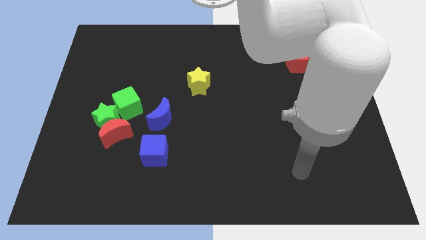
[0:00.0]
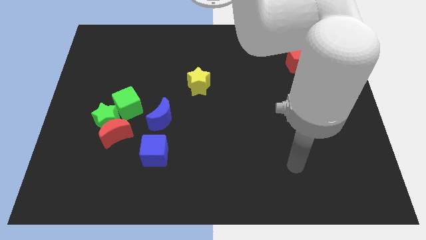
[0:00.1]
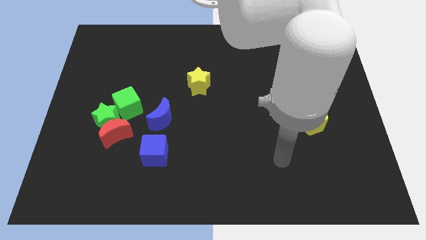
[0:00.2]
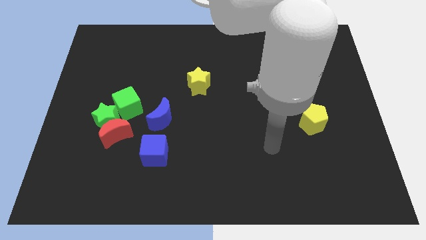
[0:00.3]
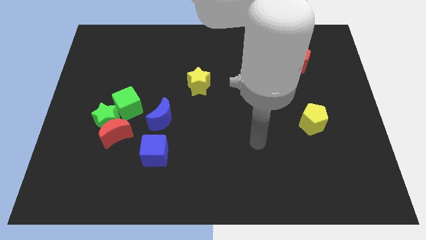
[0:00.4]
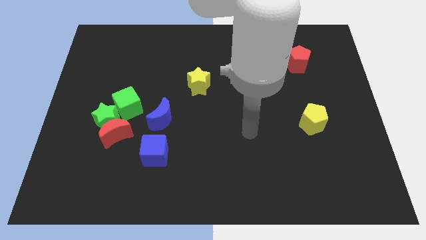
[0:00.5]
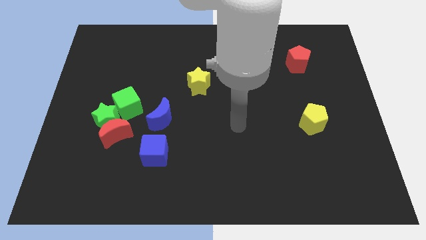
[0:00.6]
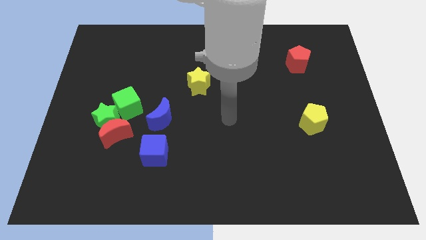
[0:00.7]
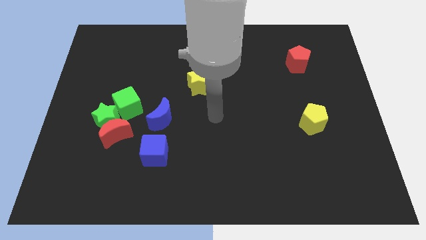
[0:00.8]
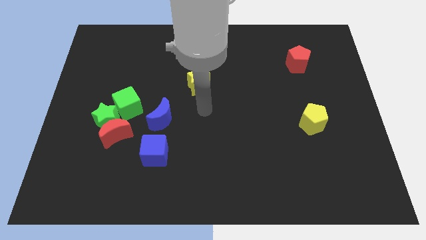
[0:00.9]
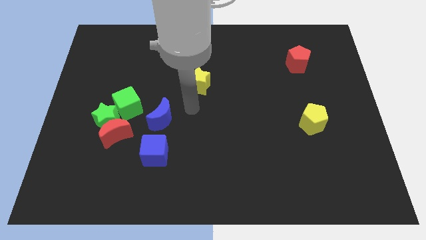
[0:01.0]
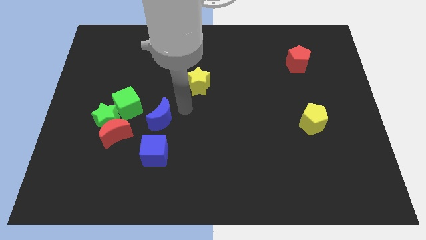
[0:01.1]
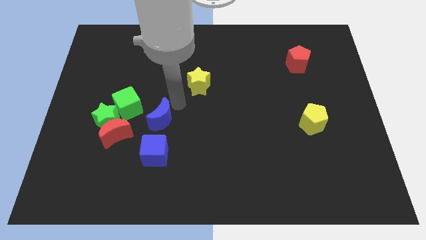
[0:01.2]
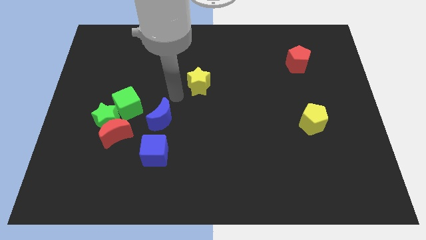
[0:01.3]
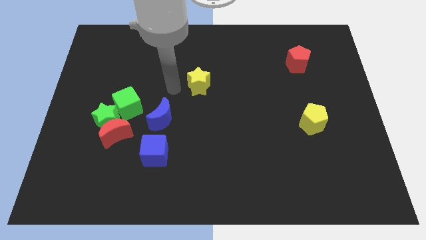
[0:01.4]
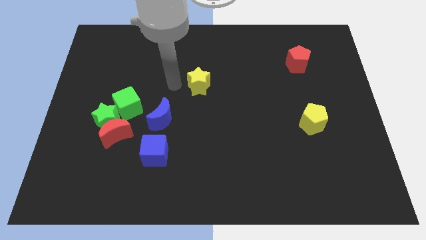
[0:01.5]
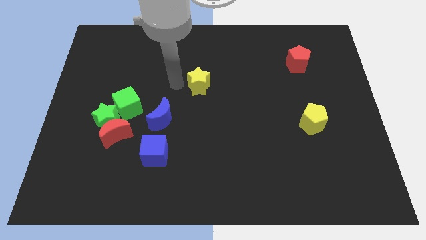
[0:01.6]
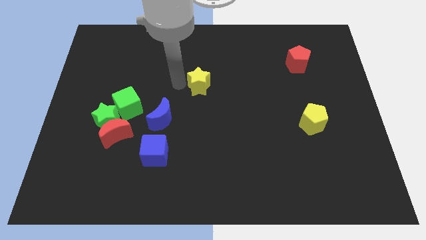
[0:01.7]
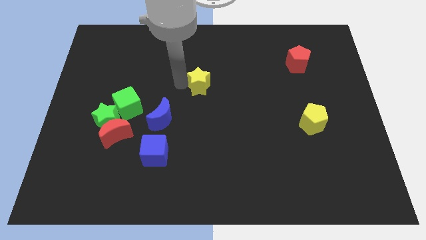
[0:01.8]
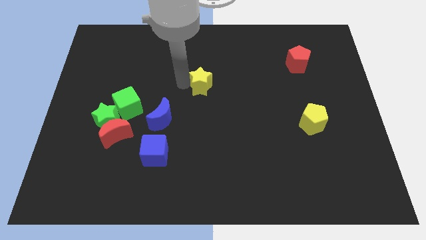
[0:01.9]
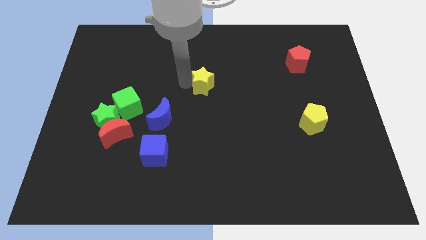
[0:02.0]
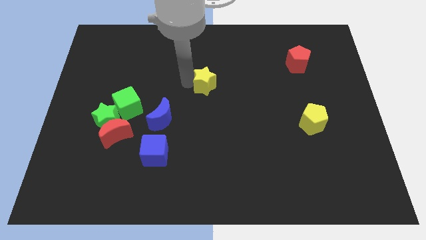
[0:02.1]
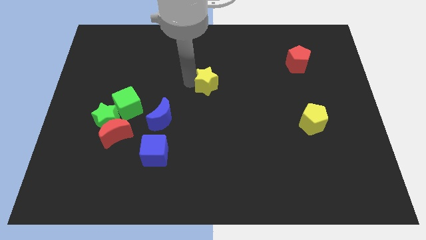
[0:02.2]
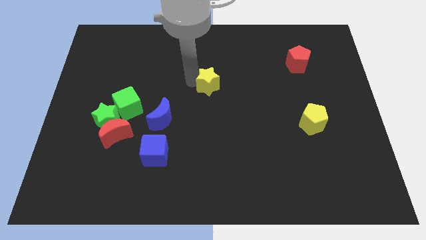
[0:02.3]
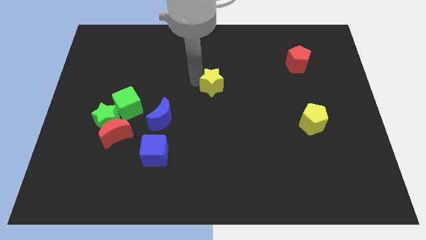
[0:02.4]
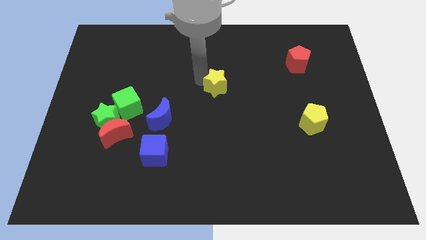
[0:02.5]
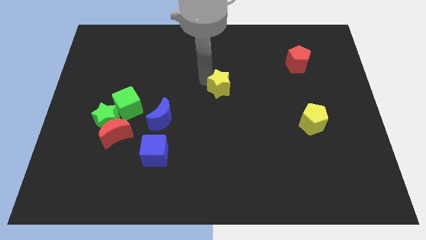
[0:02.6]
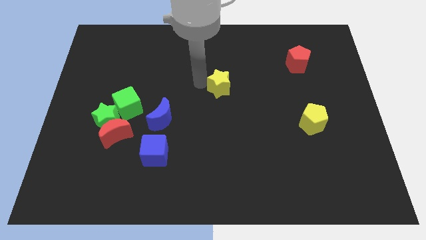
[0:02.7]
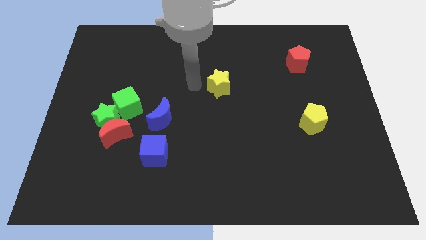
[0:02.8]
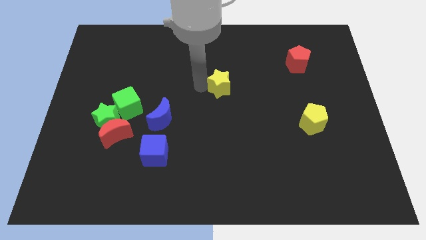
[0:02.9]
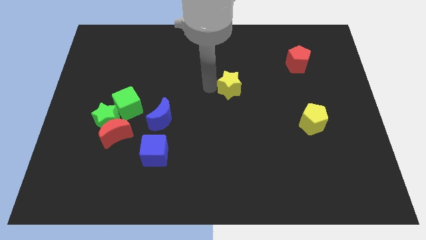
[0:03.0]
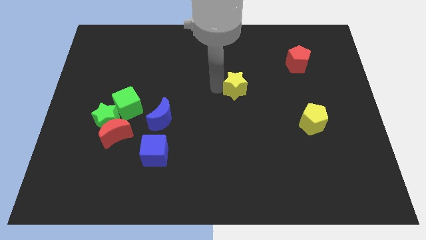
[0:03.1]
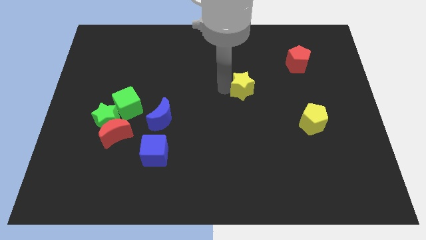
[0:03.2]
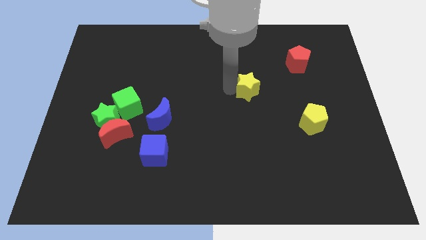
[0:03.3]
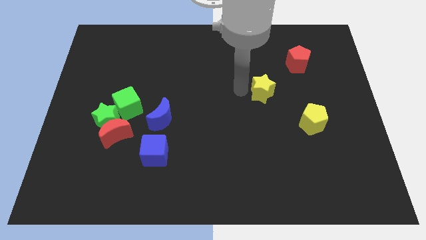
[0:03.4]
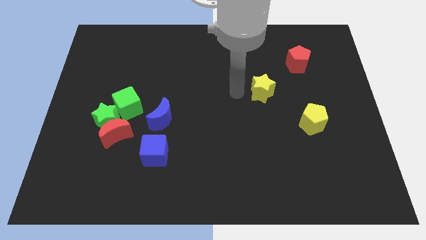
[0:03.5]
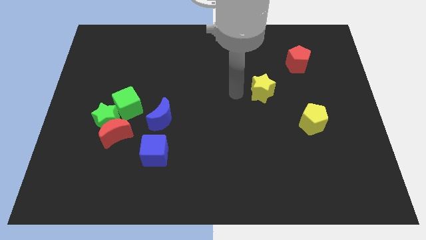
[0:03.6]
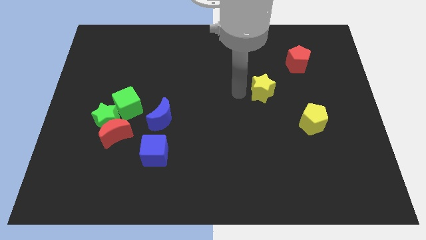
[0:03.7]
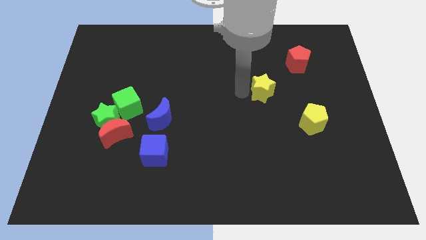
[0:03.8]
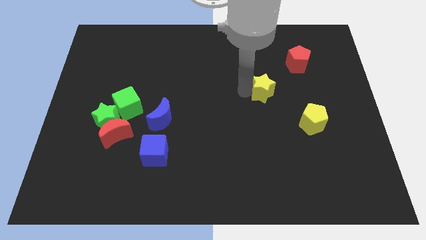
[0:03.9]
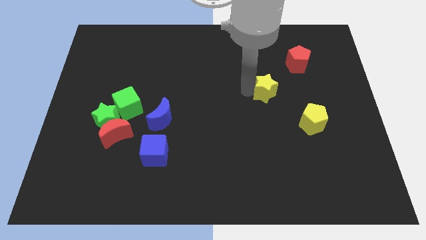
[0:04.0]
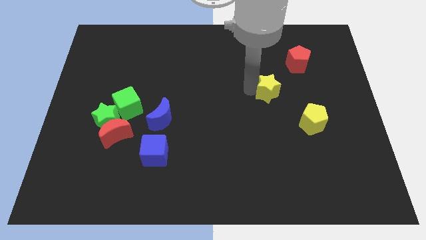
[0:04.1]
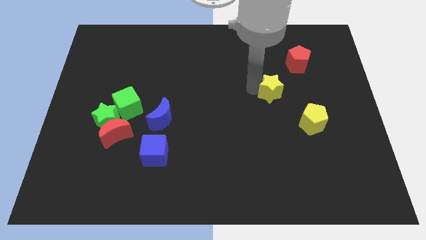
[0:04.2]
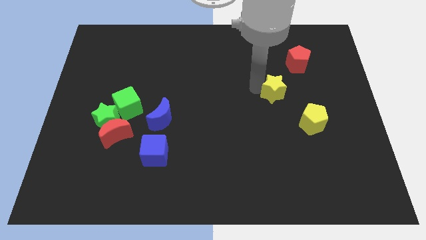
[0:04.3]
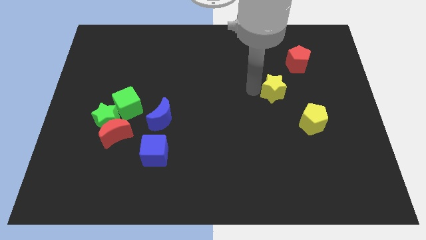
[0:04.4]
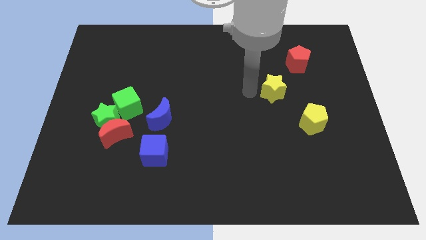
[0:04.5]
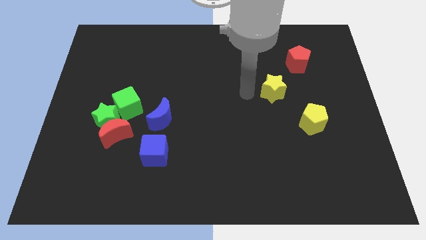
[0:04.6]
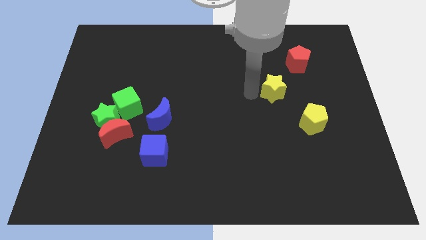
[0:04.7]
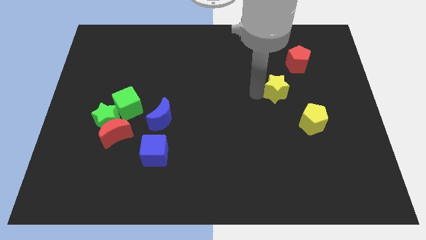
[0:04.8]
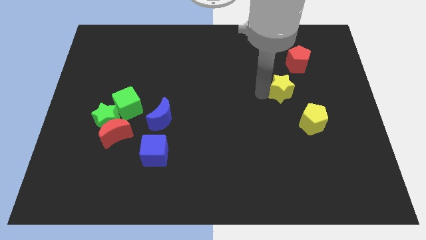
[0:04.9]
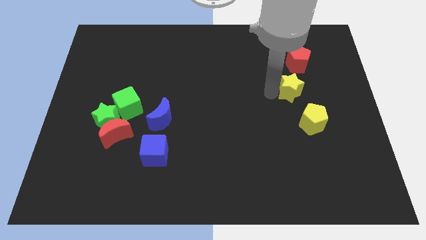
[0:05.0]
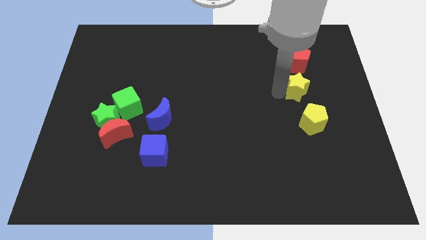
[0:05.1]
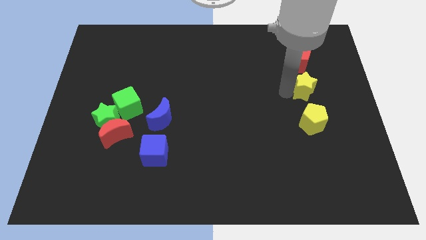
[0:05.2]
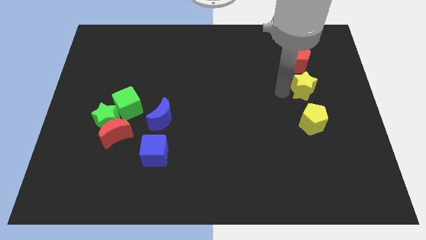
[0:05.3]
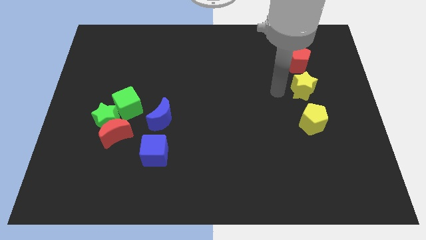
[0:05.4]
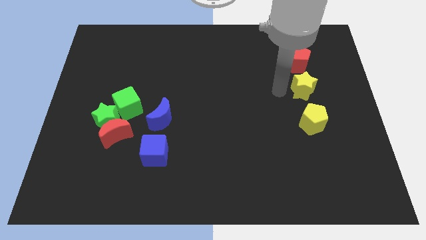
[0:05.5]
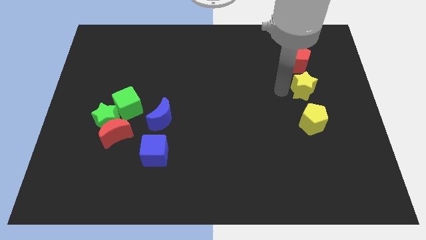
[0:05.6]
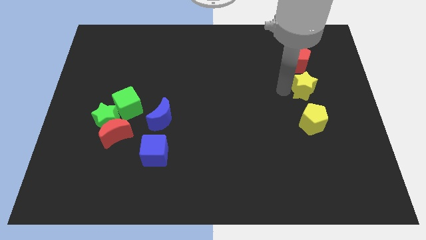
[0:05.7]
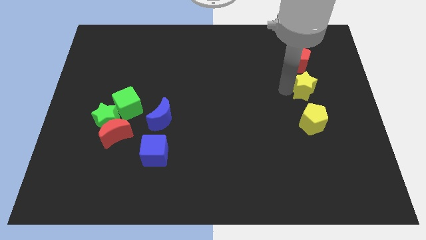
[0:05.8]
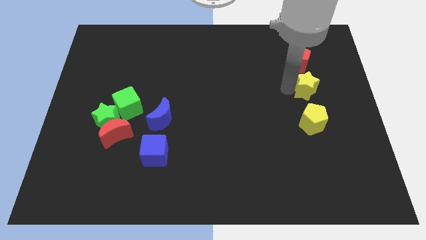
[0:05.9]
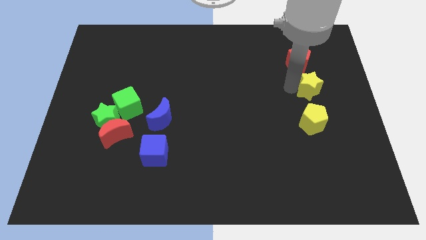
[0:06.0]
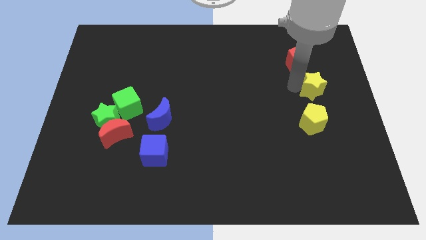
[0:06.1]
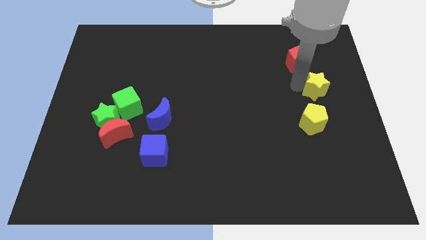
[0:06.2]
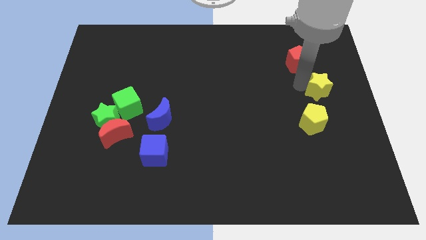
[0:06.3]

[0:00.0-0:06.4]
move the yellow star to the right side of the board
